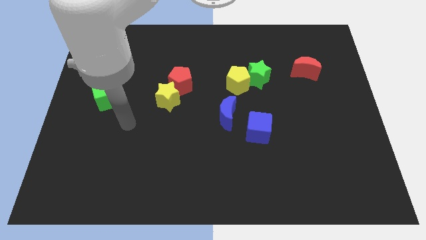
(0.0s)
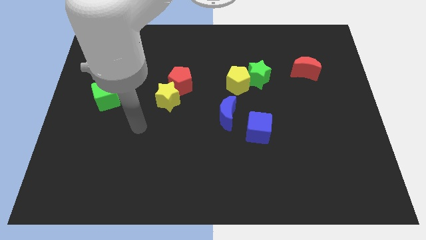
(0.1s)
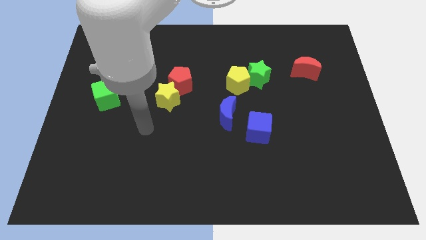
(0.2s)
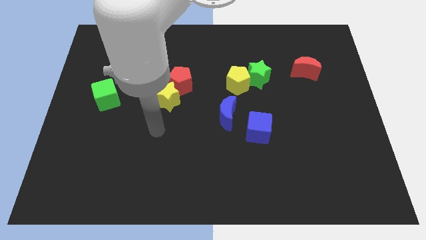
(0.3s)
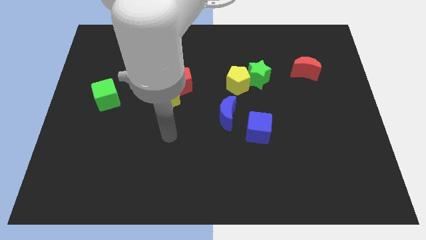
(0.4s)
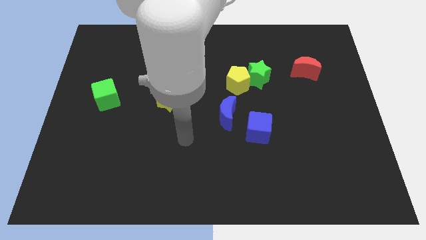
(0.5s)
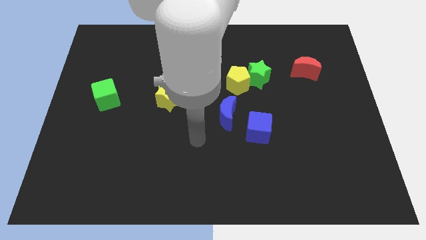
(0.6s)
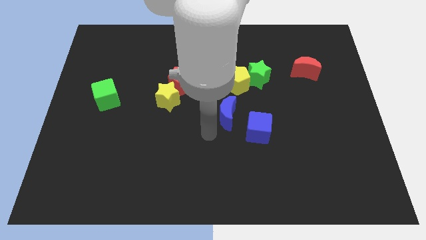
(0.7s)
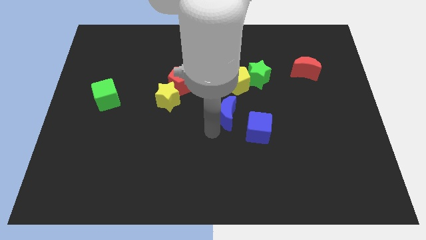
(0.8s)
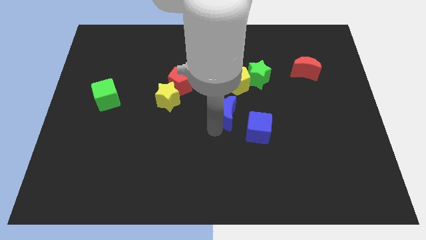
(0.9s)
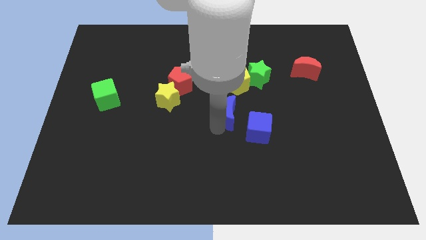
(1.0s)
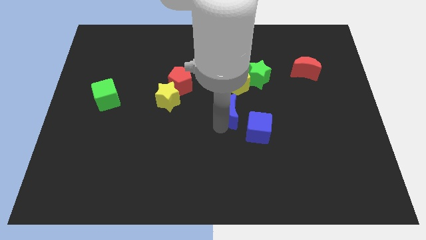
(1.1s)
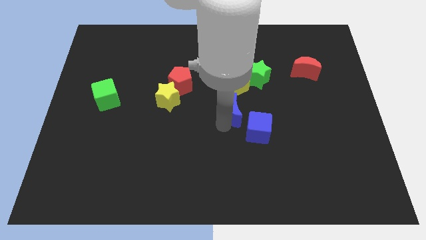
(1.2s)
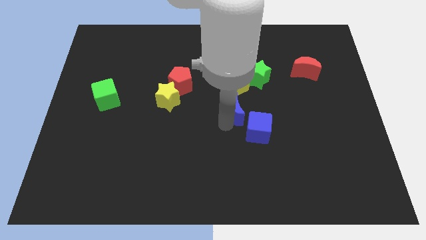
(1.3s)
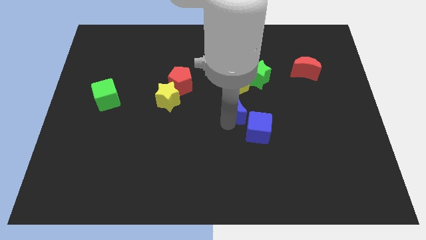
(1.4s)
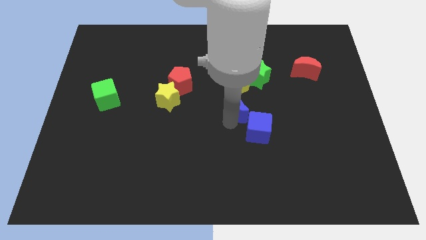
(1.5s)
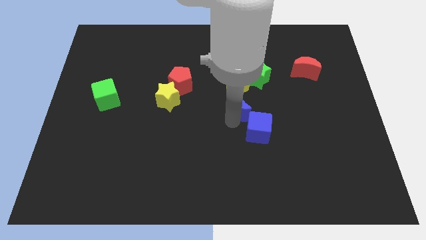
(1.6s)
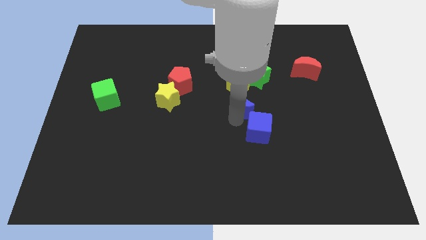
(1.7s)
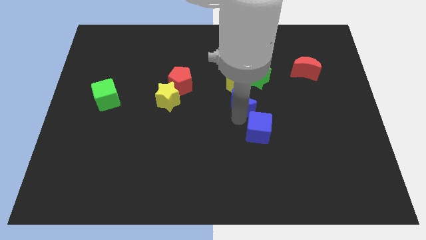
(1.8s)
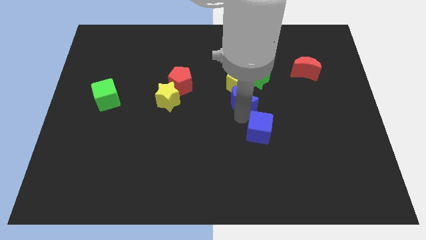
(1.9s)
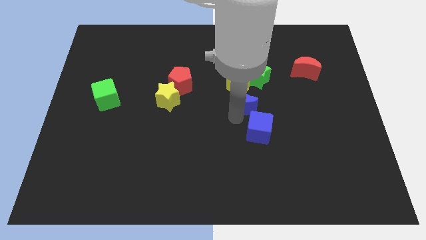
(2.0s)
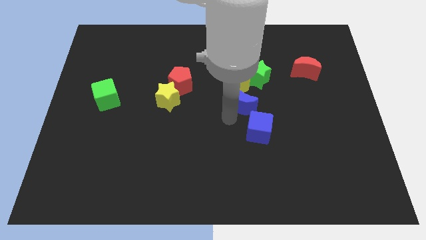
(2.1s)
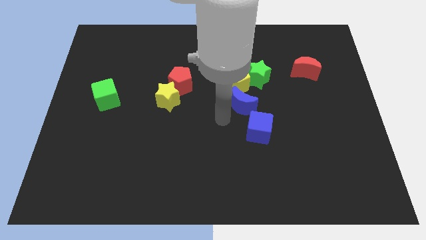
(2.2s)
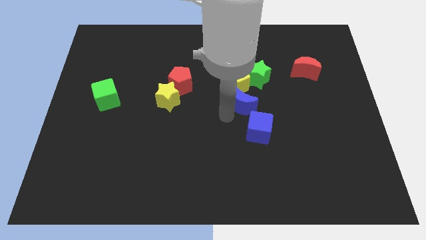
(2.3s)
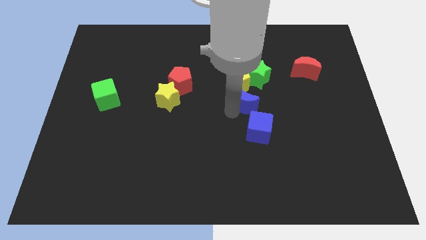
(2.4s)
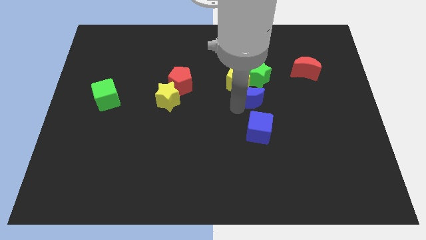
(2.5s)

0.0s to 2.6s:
slide the blue moon up and to the right diagonally slightly

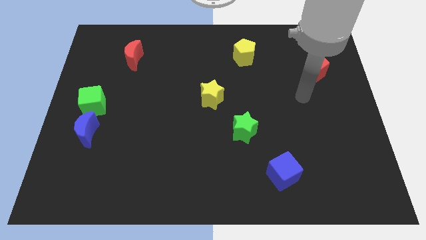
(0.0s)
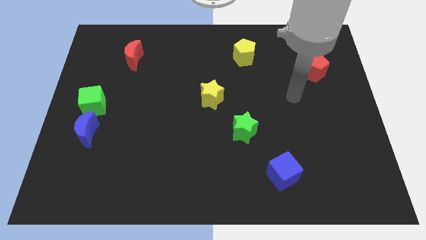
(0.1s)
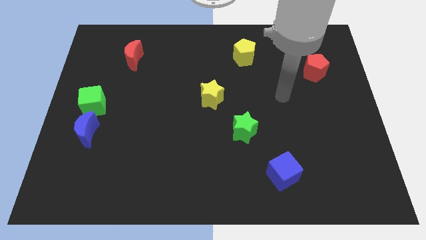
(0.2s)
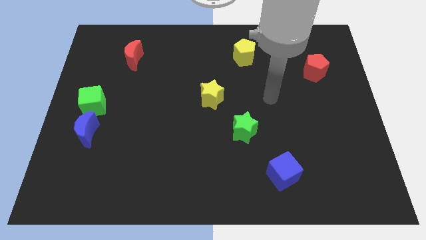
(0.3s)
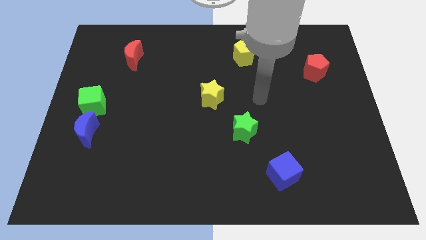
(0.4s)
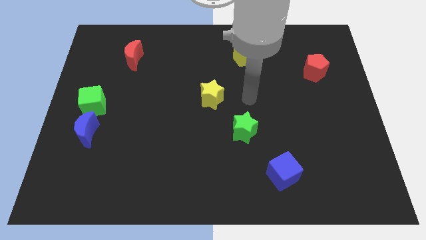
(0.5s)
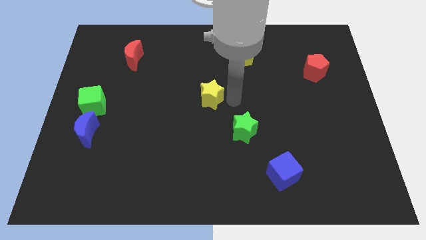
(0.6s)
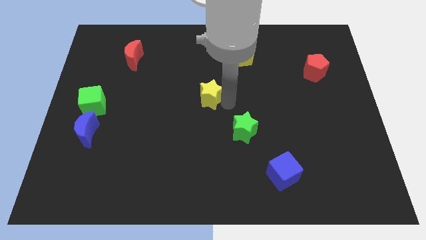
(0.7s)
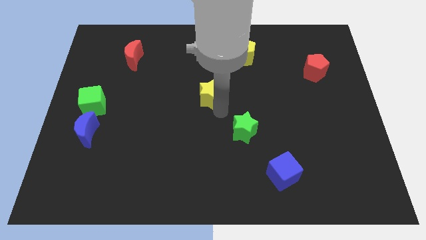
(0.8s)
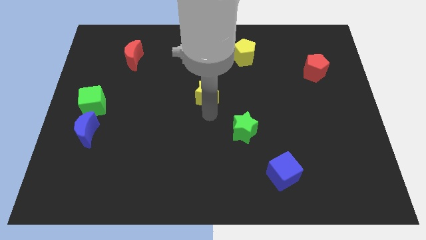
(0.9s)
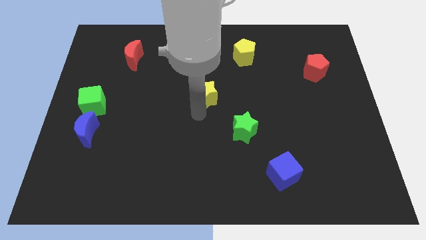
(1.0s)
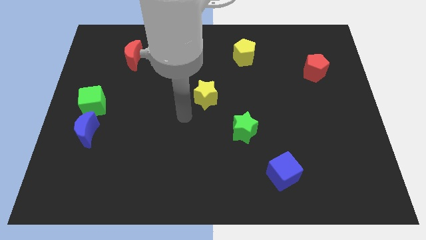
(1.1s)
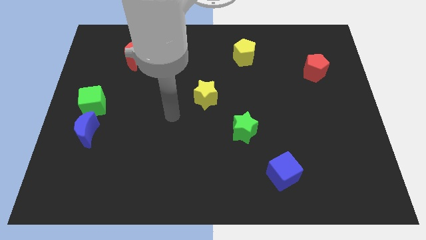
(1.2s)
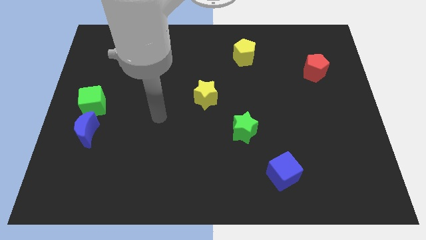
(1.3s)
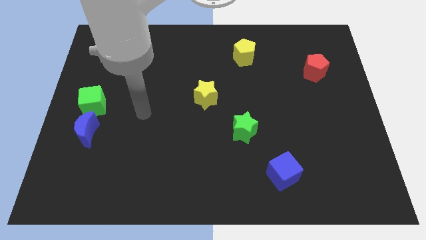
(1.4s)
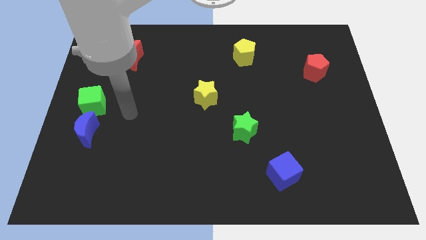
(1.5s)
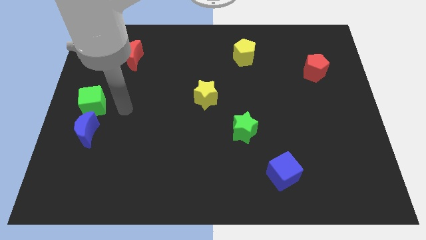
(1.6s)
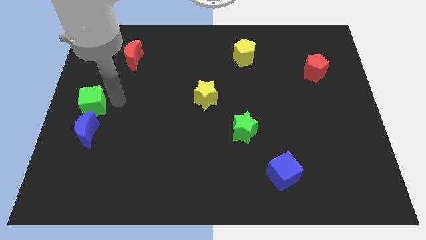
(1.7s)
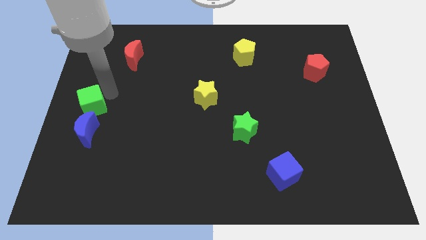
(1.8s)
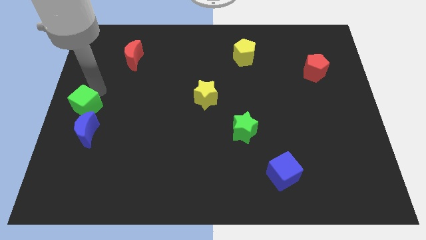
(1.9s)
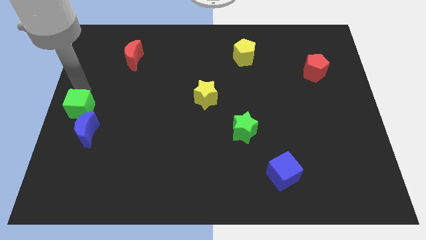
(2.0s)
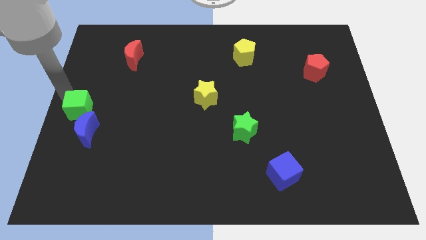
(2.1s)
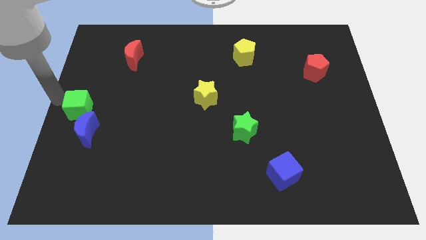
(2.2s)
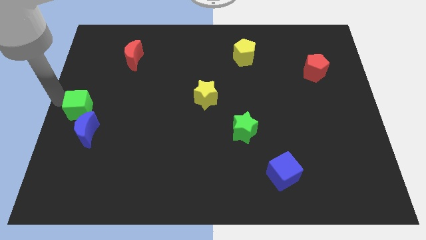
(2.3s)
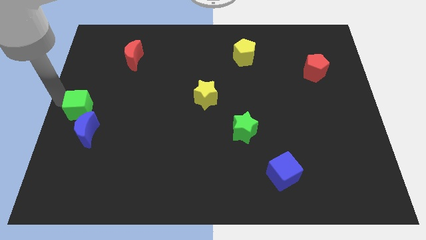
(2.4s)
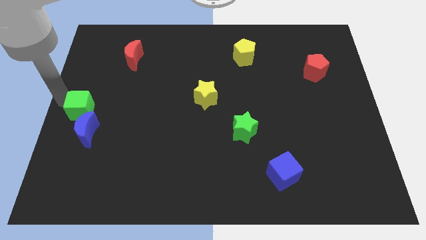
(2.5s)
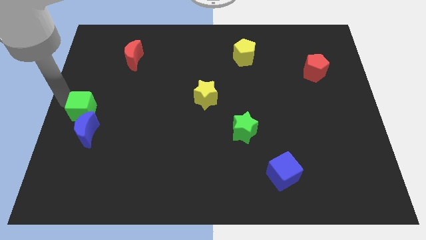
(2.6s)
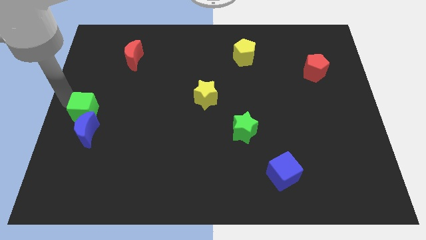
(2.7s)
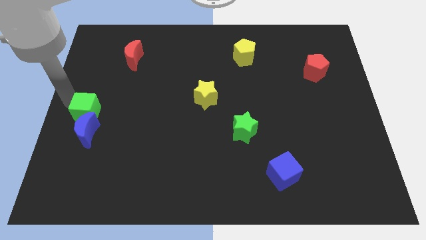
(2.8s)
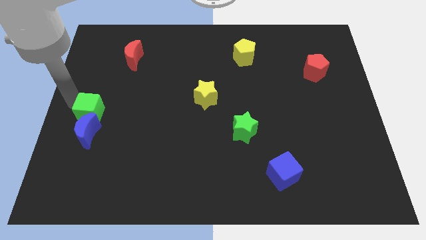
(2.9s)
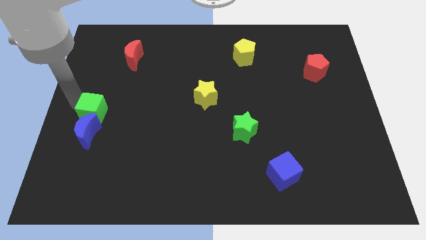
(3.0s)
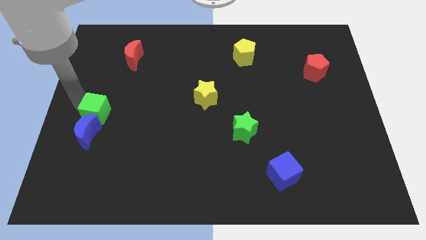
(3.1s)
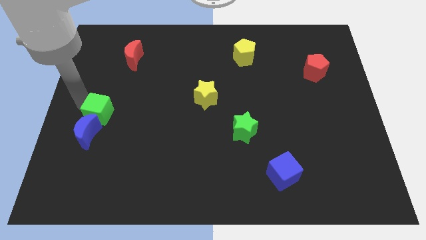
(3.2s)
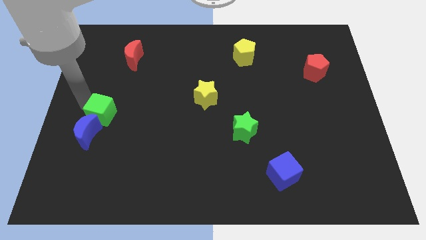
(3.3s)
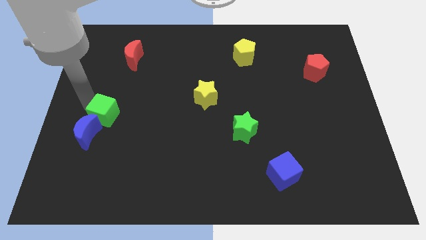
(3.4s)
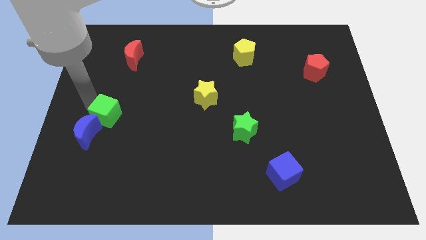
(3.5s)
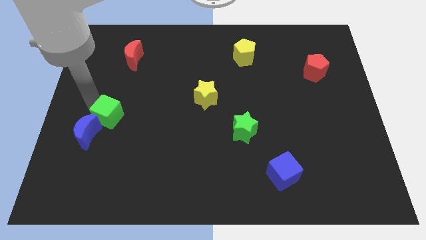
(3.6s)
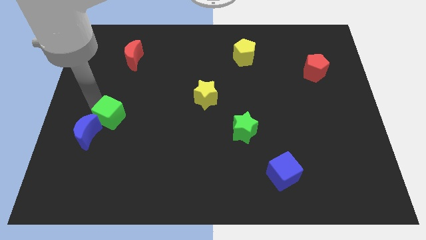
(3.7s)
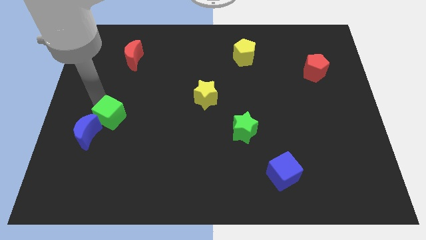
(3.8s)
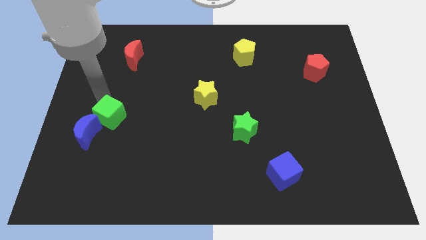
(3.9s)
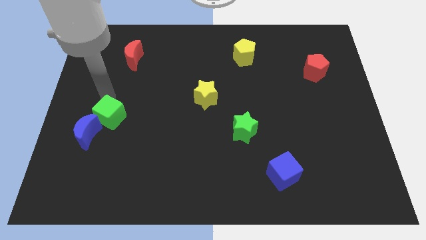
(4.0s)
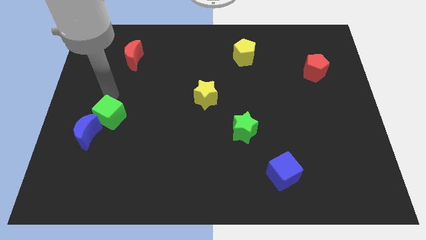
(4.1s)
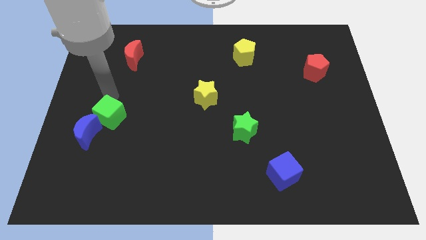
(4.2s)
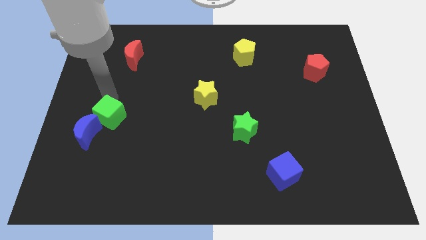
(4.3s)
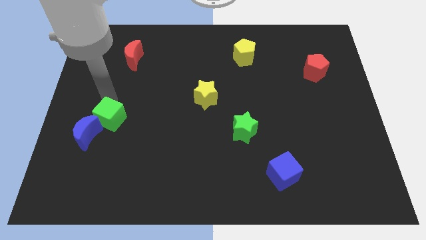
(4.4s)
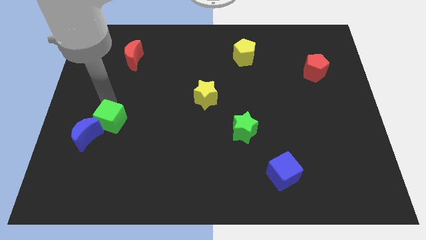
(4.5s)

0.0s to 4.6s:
slightly move the green cube diagonally downwards and right

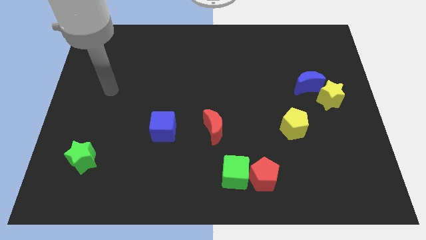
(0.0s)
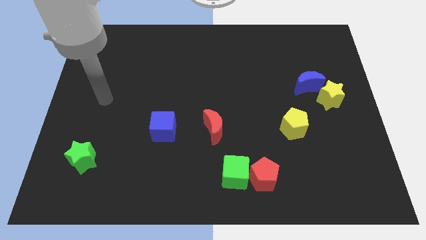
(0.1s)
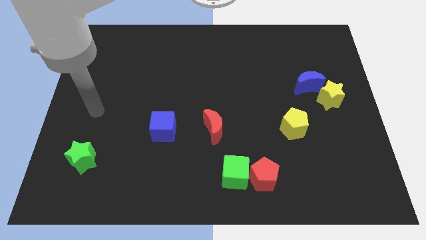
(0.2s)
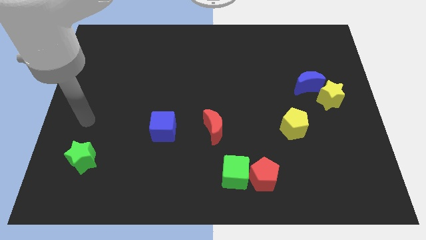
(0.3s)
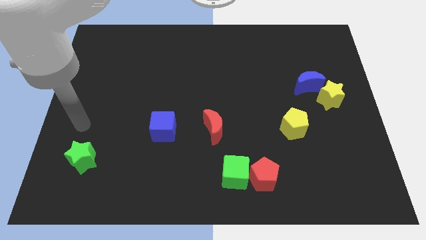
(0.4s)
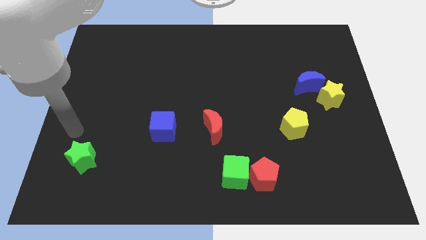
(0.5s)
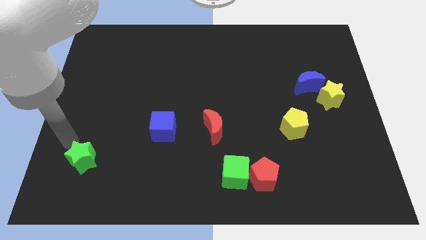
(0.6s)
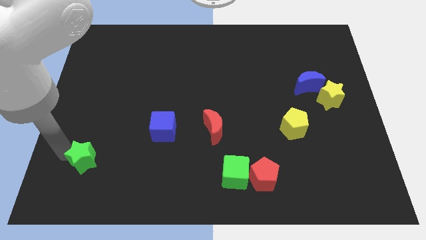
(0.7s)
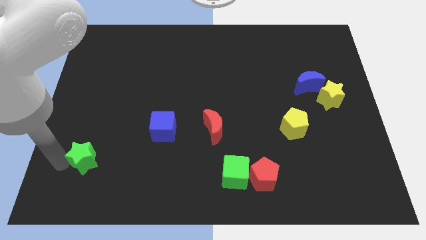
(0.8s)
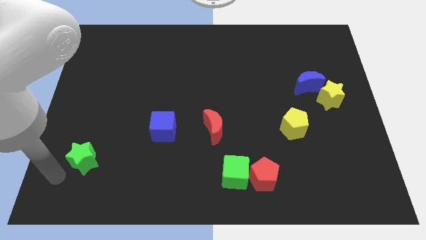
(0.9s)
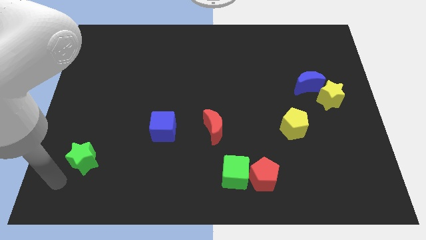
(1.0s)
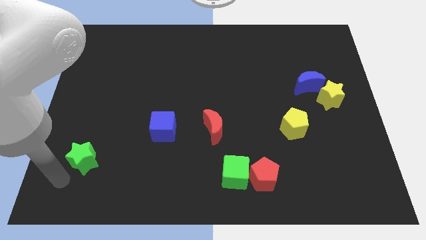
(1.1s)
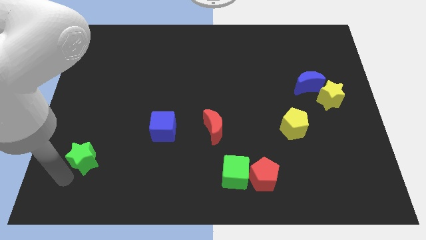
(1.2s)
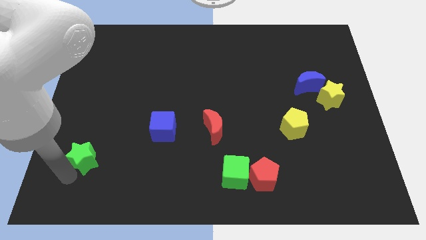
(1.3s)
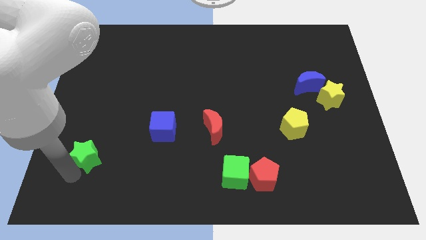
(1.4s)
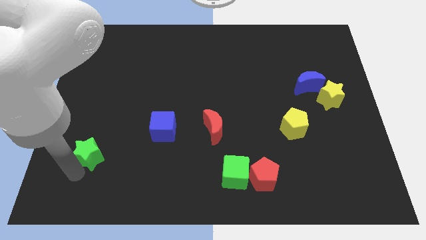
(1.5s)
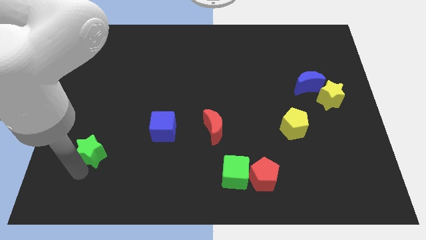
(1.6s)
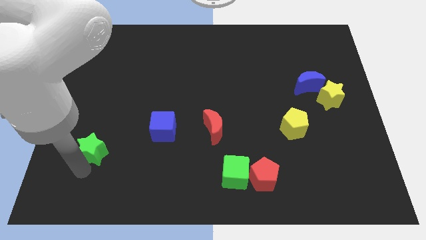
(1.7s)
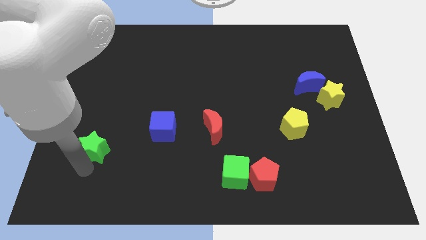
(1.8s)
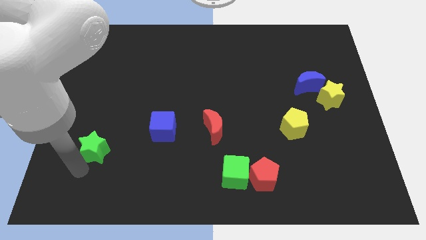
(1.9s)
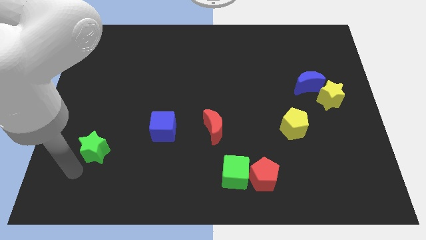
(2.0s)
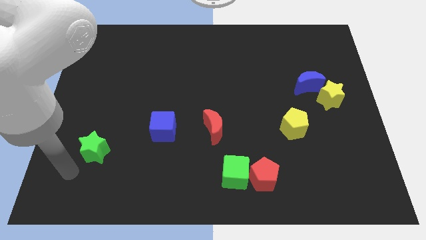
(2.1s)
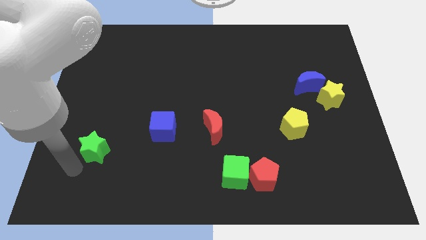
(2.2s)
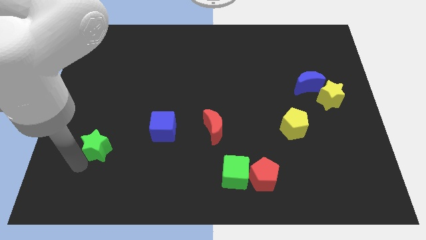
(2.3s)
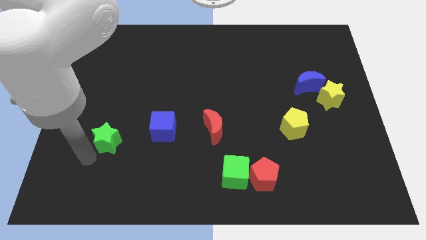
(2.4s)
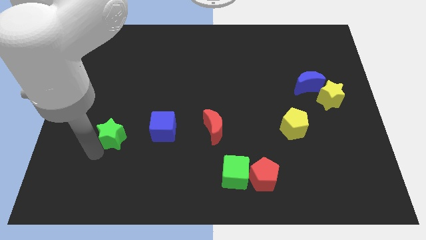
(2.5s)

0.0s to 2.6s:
push the green star upwards and then right a bit
